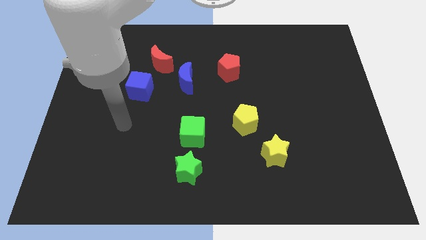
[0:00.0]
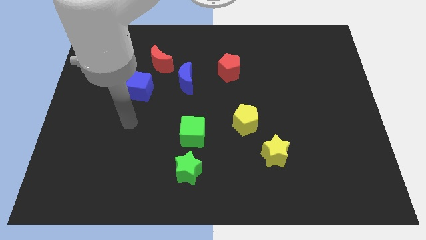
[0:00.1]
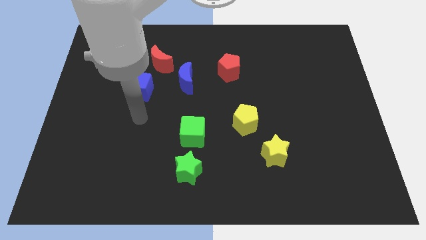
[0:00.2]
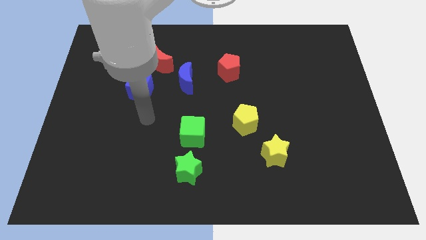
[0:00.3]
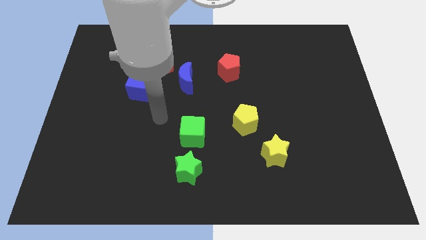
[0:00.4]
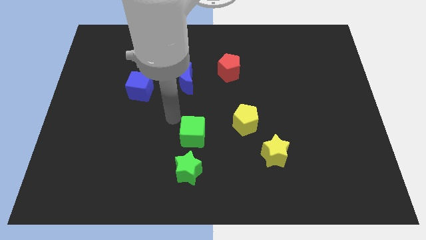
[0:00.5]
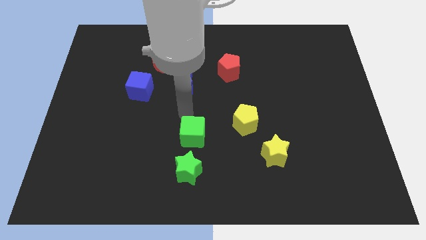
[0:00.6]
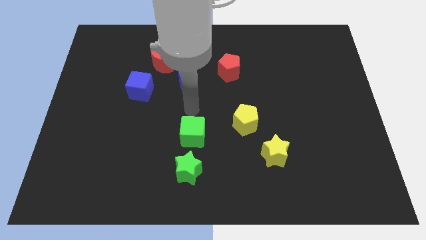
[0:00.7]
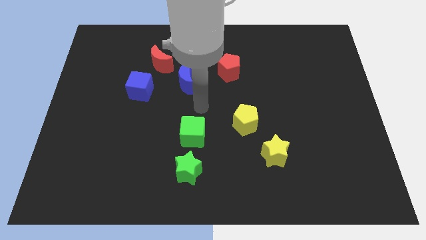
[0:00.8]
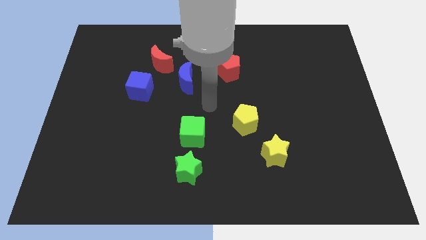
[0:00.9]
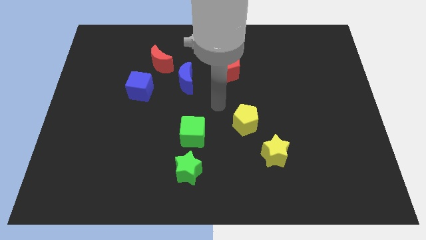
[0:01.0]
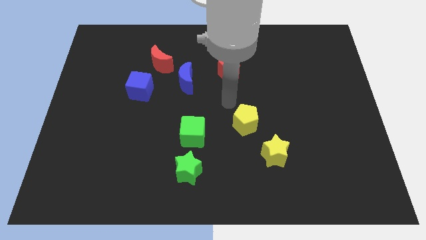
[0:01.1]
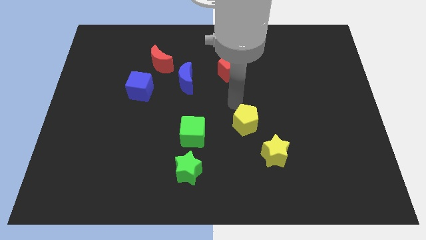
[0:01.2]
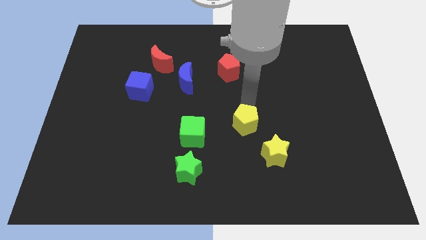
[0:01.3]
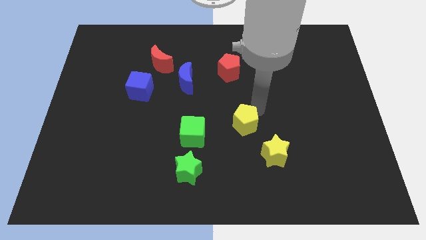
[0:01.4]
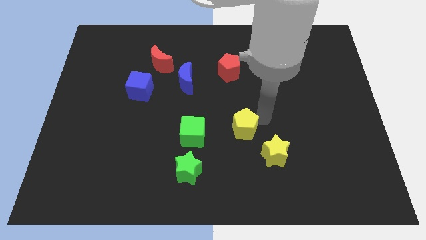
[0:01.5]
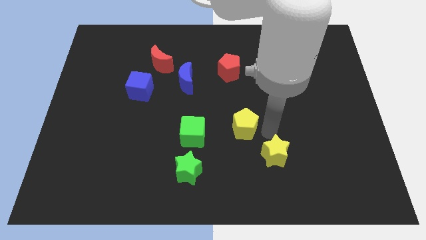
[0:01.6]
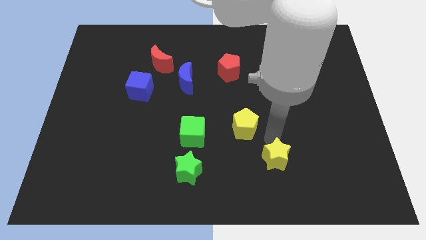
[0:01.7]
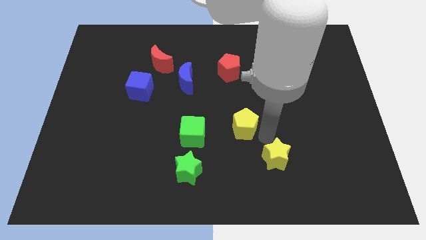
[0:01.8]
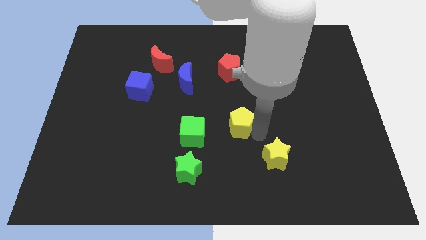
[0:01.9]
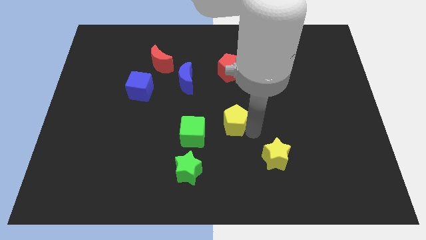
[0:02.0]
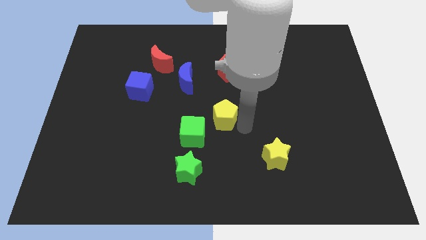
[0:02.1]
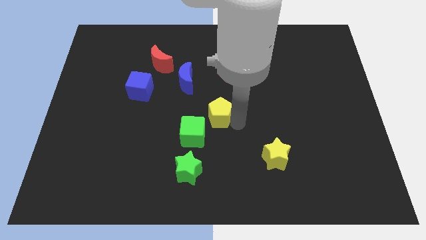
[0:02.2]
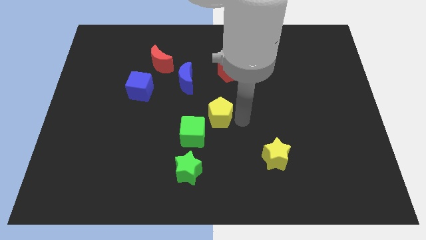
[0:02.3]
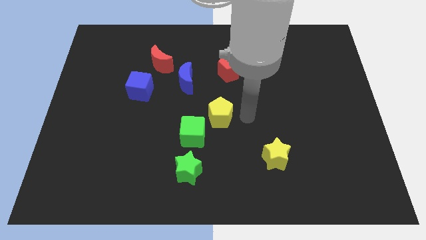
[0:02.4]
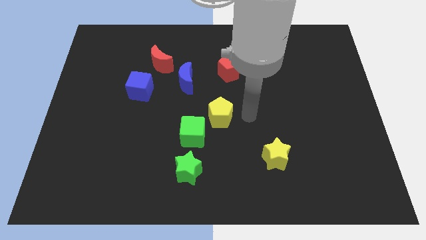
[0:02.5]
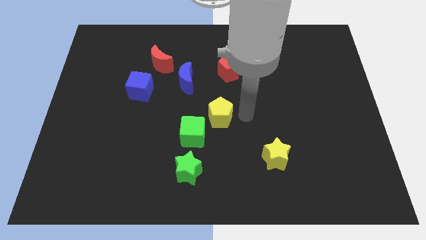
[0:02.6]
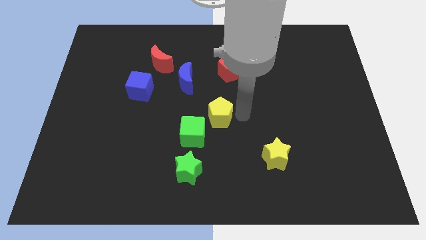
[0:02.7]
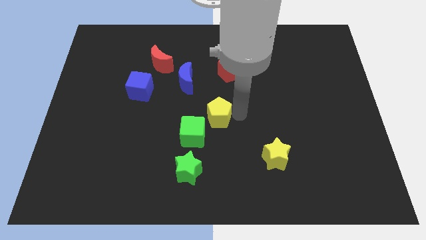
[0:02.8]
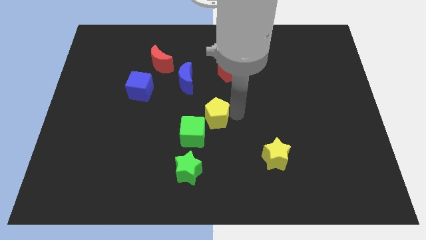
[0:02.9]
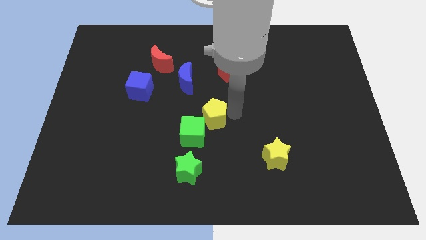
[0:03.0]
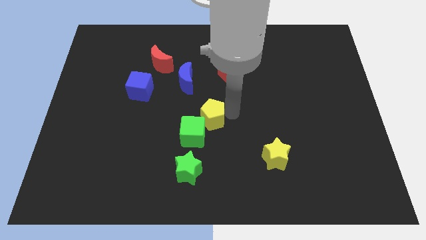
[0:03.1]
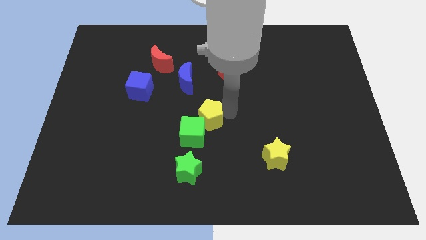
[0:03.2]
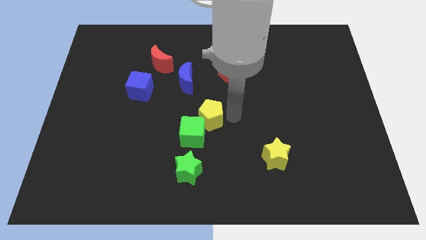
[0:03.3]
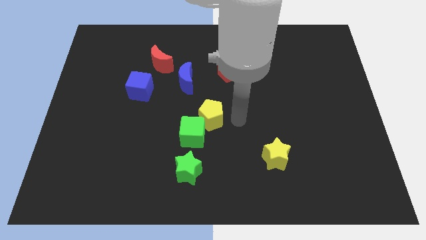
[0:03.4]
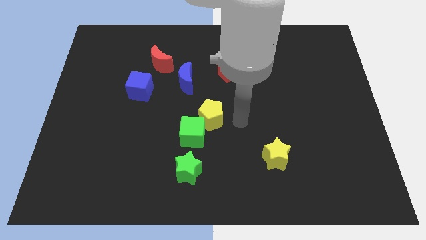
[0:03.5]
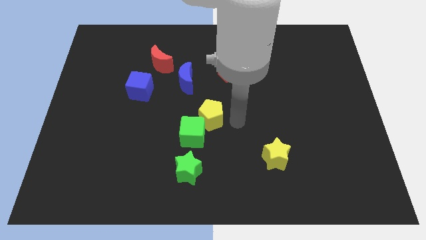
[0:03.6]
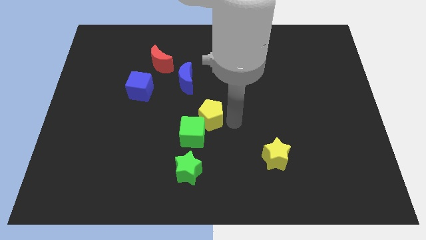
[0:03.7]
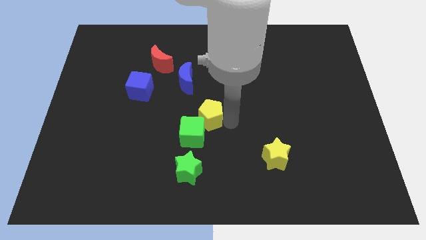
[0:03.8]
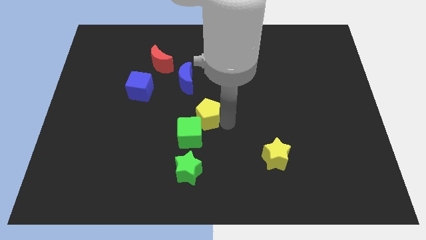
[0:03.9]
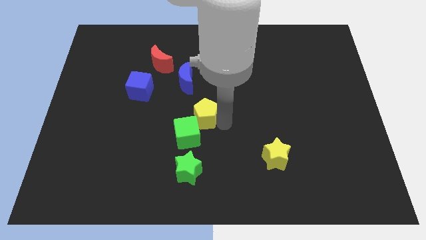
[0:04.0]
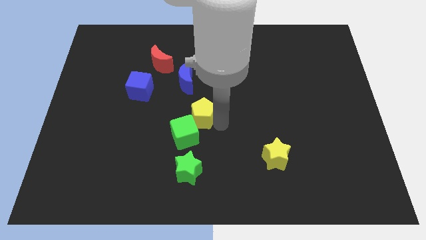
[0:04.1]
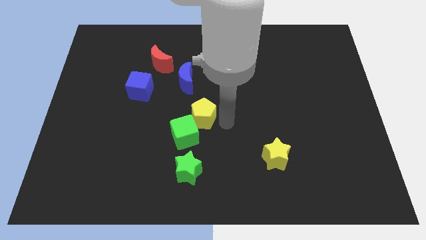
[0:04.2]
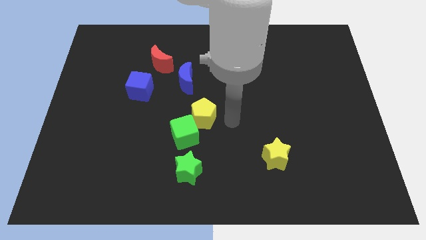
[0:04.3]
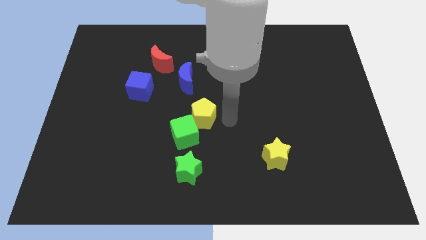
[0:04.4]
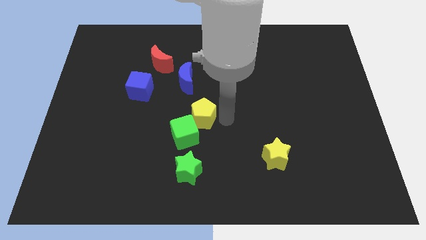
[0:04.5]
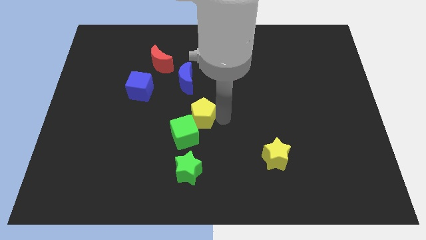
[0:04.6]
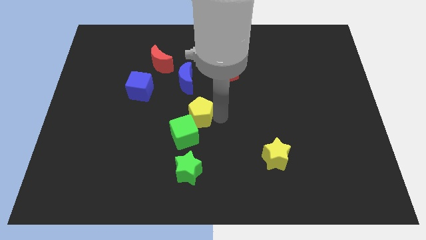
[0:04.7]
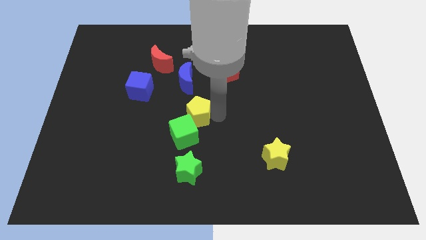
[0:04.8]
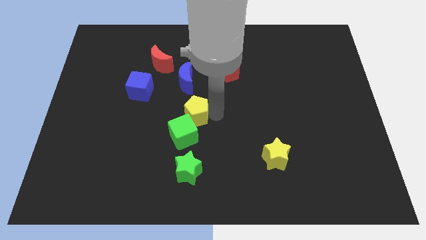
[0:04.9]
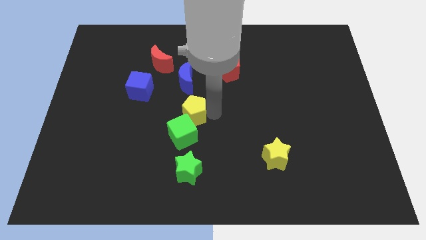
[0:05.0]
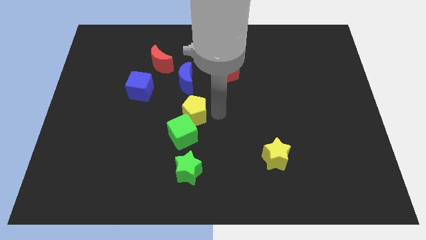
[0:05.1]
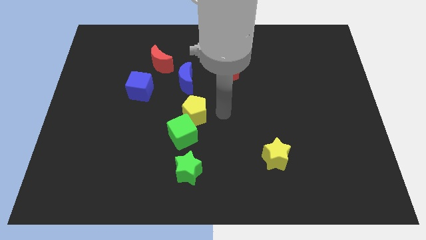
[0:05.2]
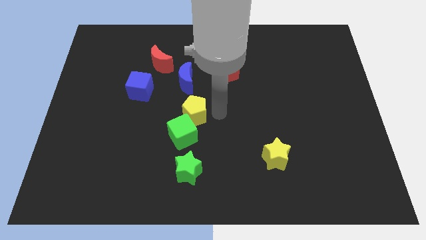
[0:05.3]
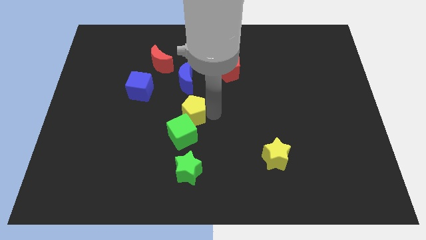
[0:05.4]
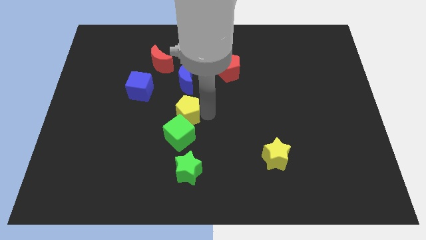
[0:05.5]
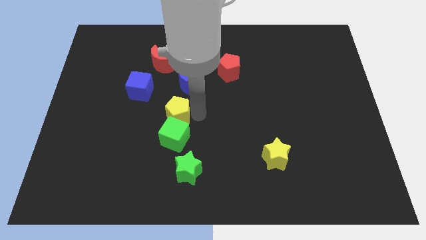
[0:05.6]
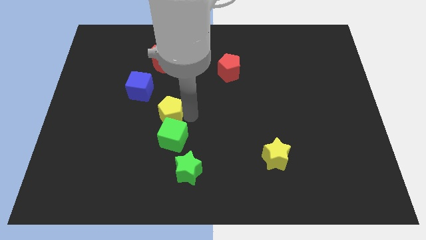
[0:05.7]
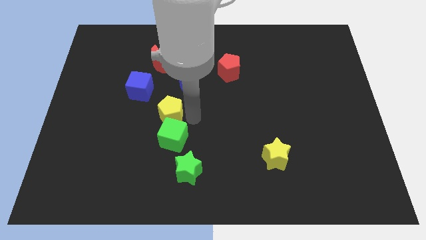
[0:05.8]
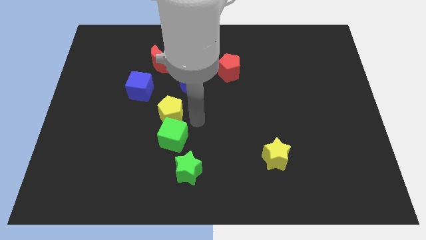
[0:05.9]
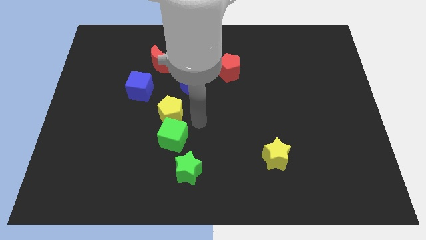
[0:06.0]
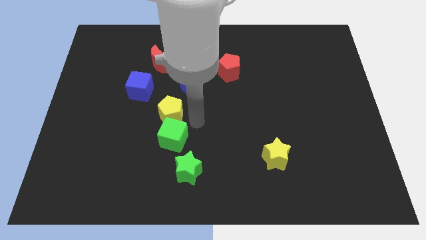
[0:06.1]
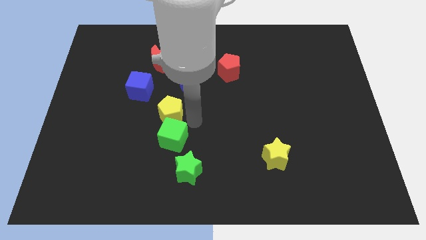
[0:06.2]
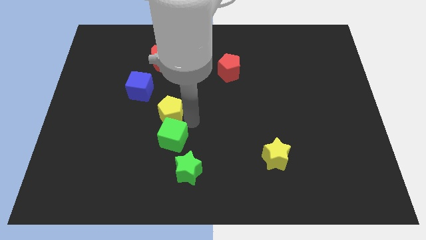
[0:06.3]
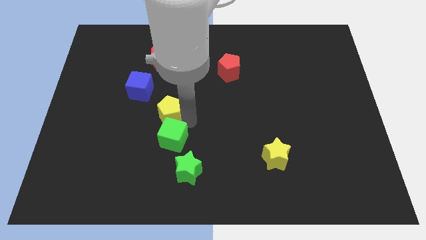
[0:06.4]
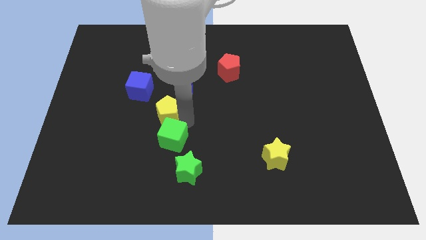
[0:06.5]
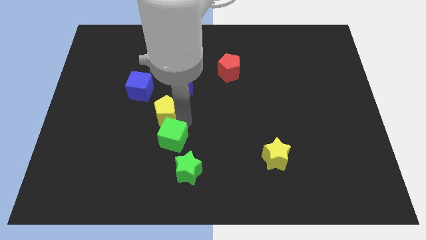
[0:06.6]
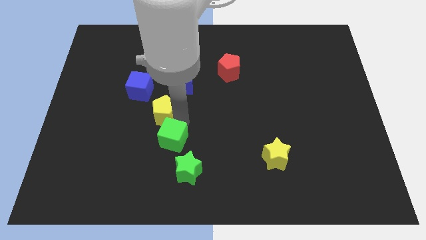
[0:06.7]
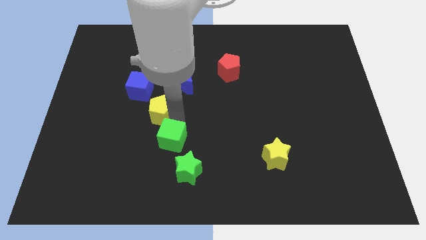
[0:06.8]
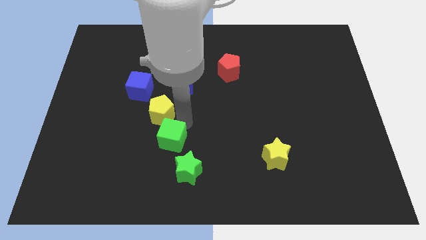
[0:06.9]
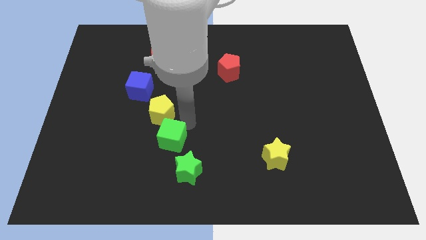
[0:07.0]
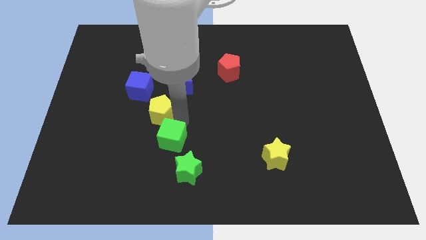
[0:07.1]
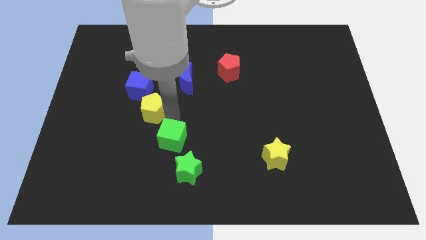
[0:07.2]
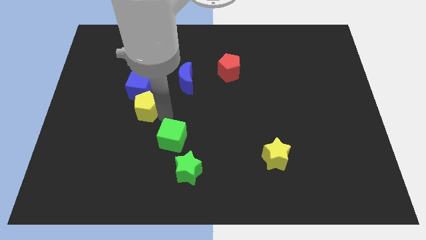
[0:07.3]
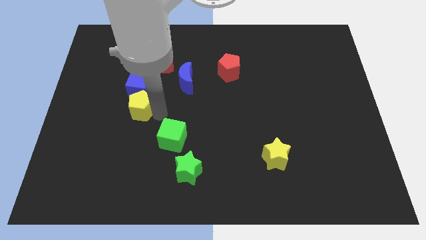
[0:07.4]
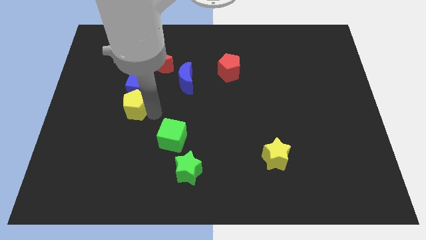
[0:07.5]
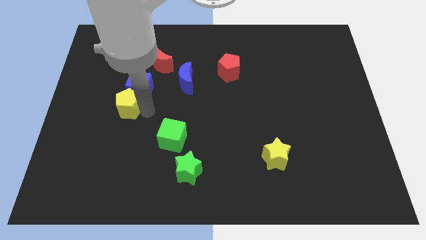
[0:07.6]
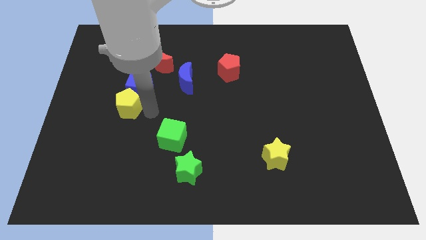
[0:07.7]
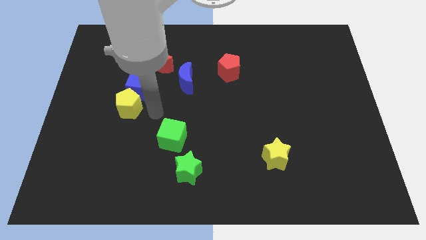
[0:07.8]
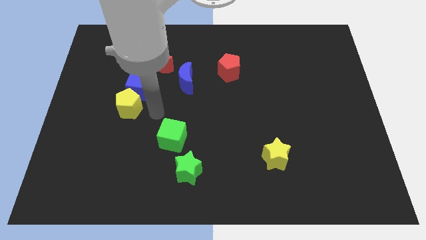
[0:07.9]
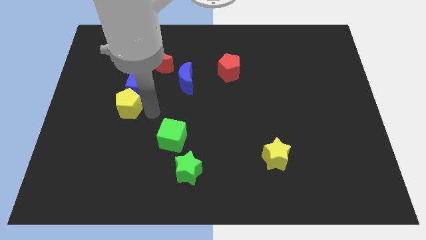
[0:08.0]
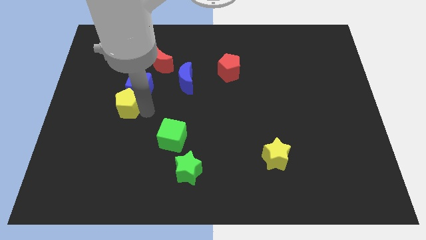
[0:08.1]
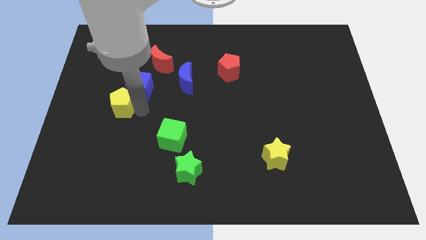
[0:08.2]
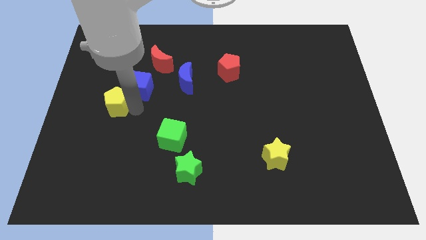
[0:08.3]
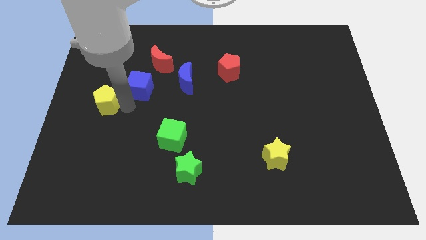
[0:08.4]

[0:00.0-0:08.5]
put the yellow pentagon to the center left
